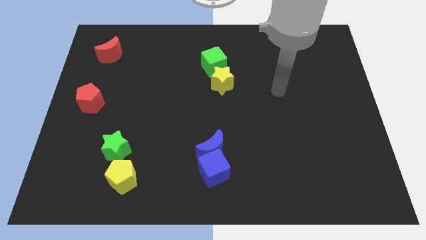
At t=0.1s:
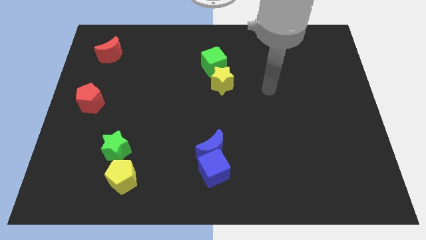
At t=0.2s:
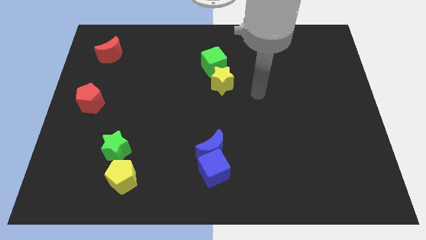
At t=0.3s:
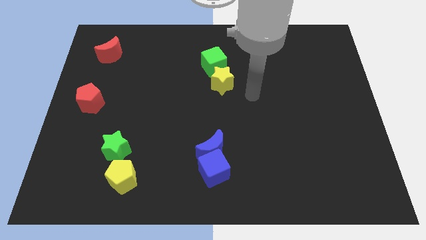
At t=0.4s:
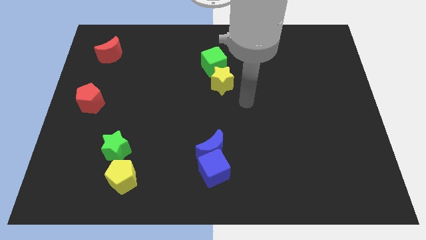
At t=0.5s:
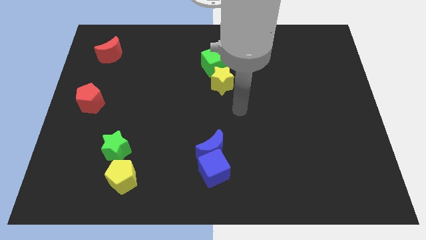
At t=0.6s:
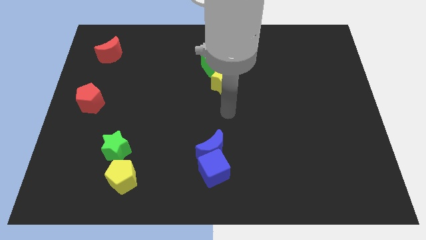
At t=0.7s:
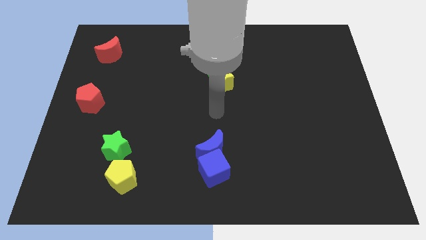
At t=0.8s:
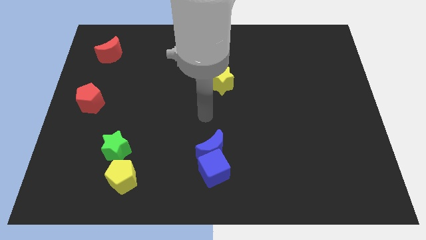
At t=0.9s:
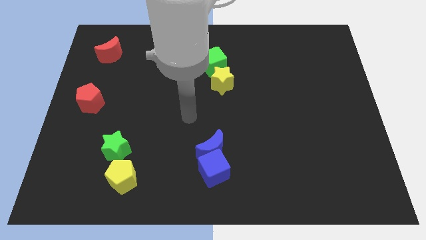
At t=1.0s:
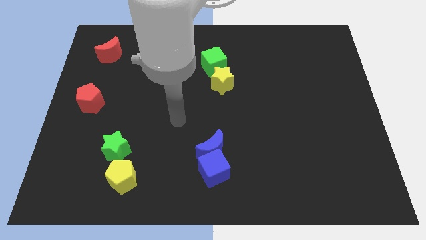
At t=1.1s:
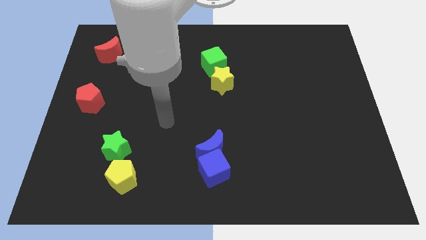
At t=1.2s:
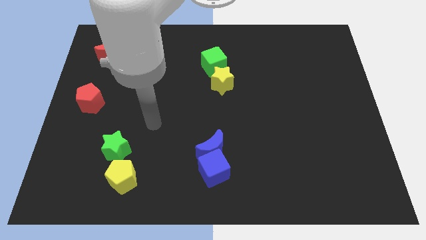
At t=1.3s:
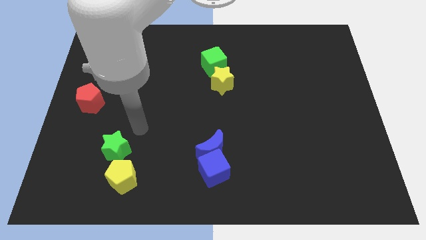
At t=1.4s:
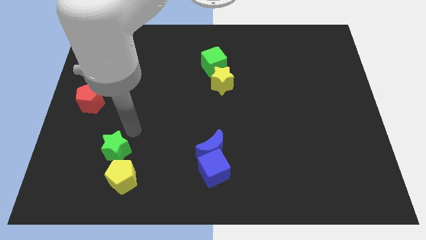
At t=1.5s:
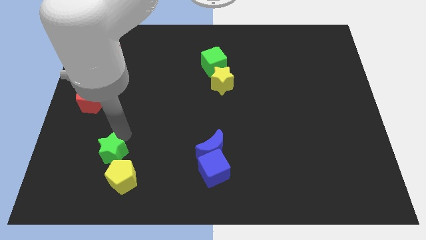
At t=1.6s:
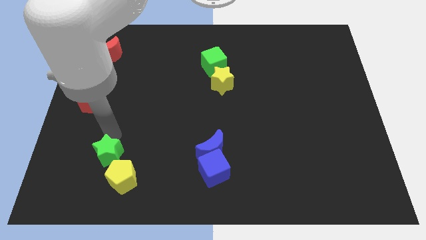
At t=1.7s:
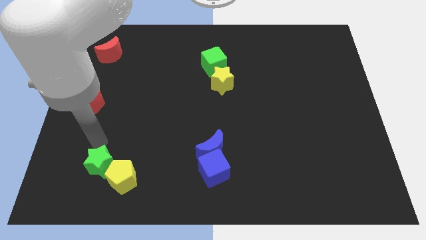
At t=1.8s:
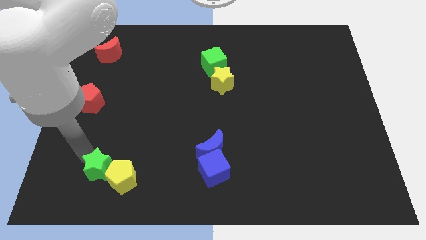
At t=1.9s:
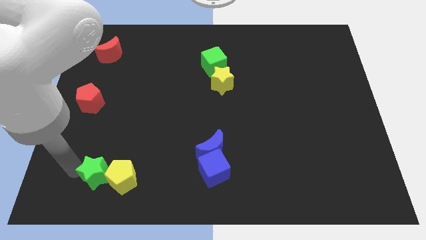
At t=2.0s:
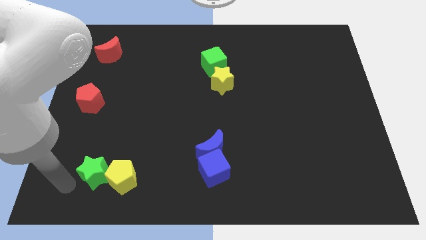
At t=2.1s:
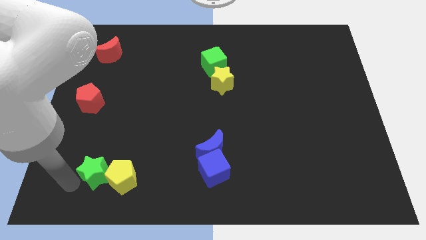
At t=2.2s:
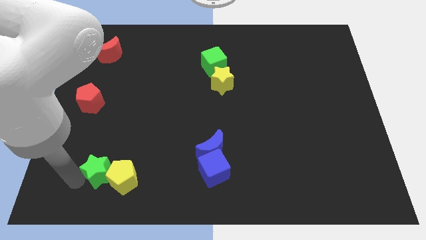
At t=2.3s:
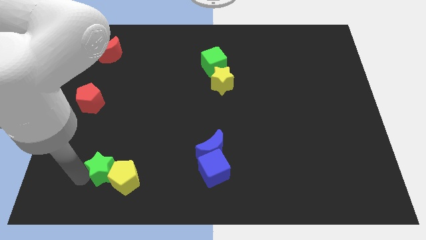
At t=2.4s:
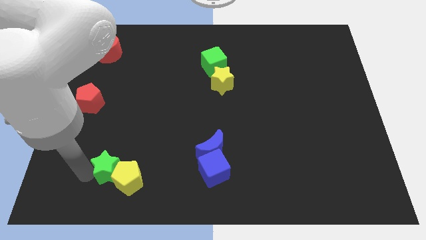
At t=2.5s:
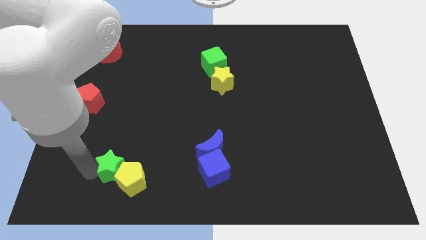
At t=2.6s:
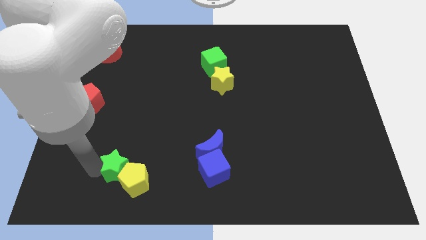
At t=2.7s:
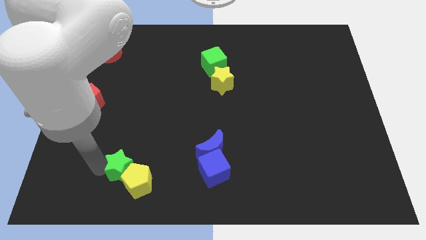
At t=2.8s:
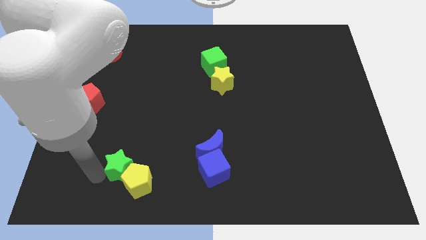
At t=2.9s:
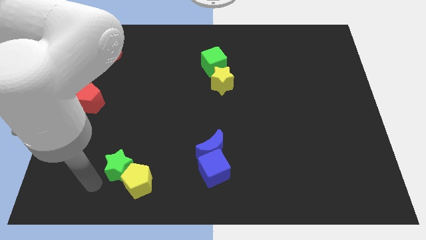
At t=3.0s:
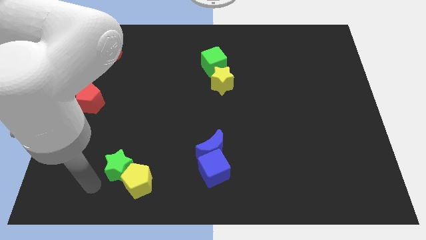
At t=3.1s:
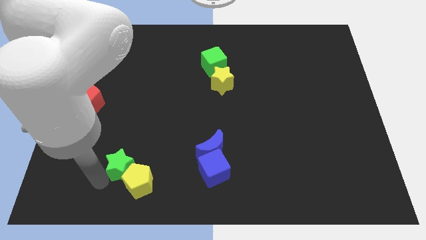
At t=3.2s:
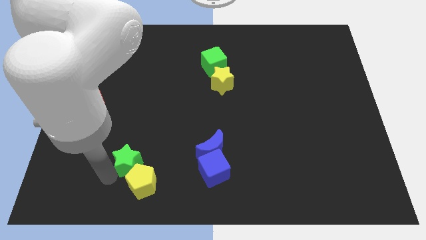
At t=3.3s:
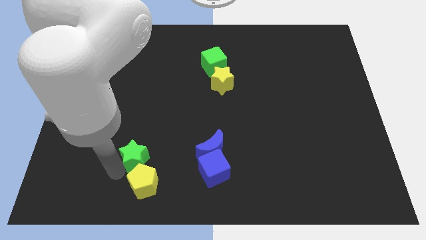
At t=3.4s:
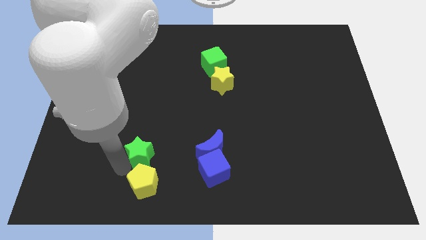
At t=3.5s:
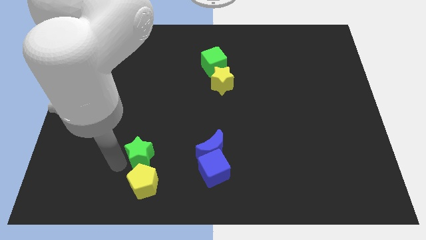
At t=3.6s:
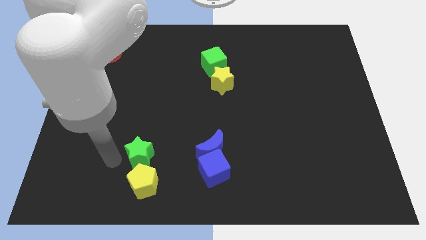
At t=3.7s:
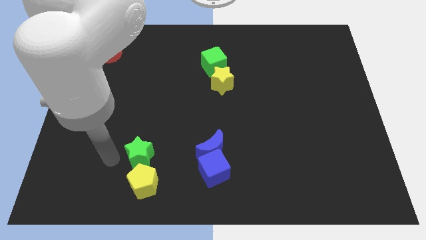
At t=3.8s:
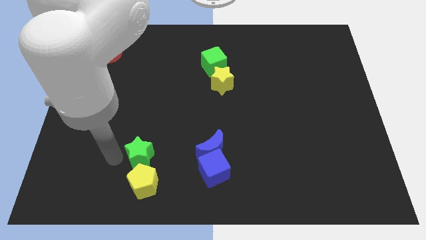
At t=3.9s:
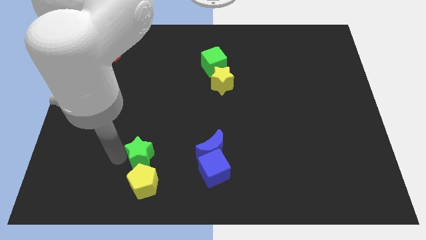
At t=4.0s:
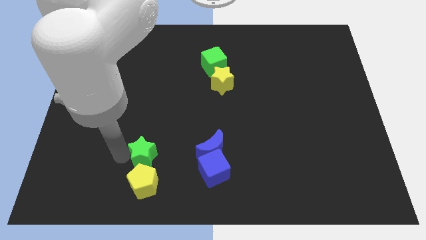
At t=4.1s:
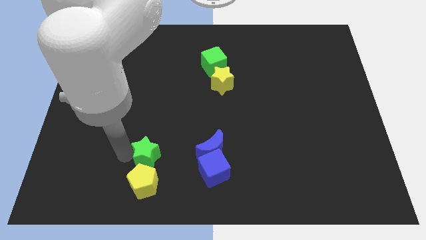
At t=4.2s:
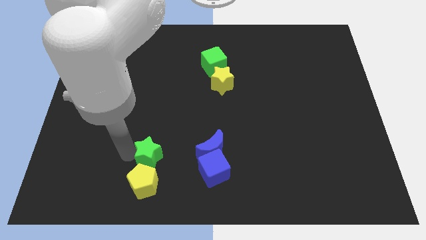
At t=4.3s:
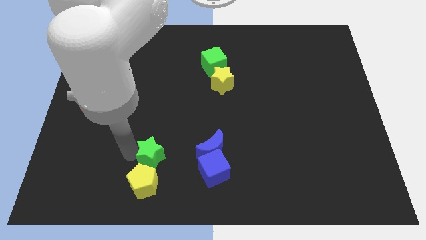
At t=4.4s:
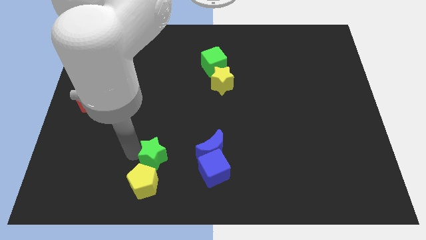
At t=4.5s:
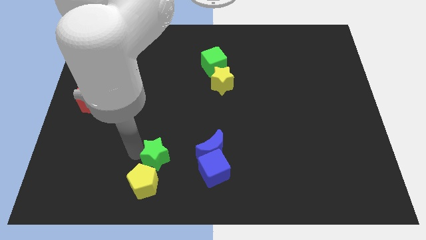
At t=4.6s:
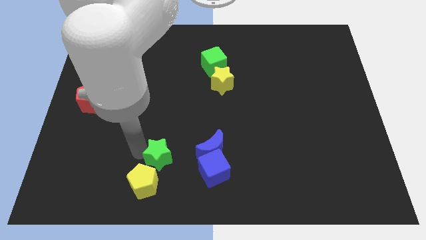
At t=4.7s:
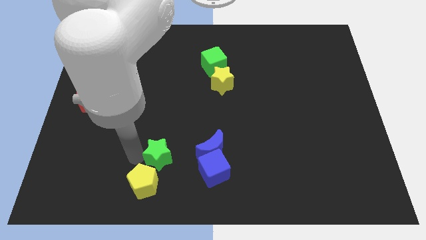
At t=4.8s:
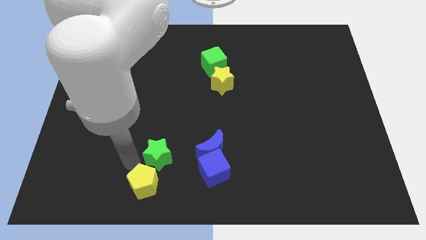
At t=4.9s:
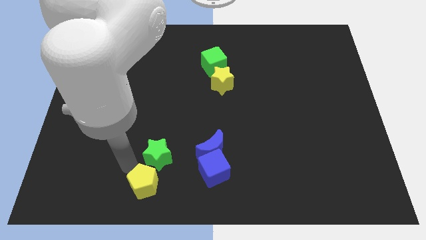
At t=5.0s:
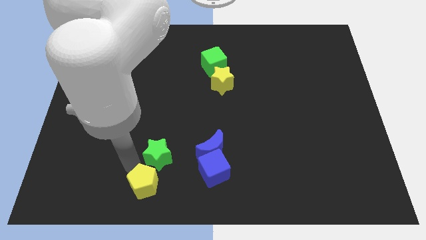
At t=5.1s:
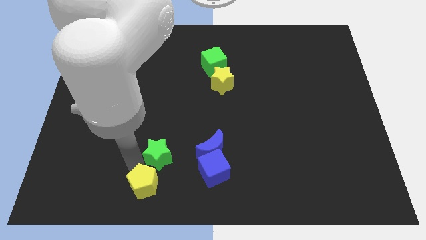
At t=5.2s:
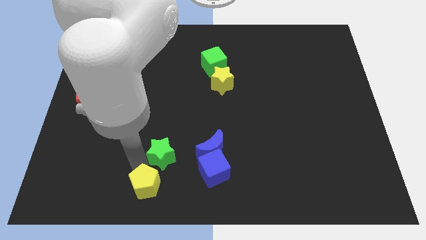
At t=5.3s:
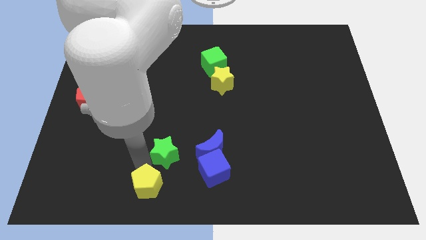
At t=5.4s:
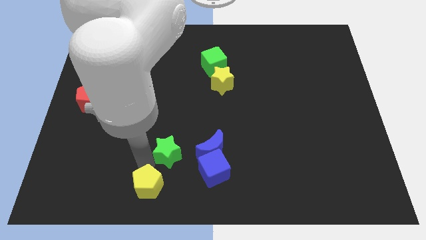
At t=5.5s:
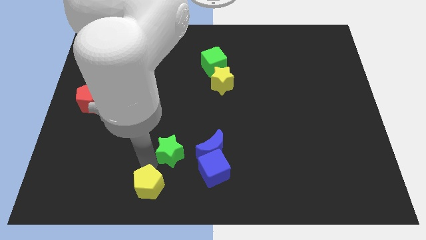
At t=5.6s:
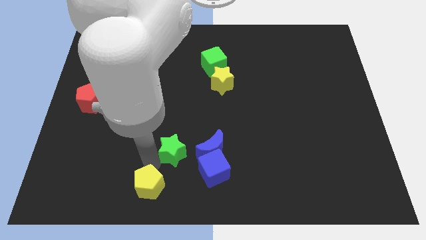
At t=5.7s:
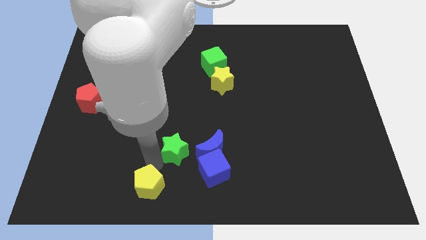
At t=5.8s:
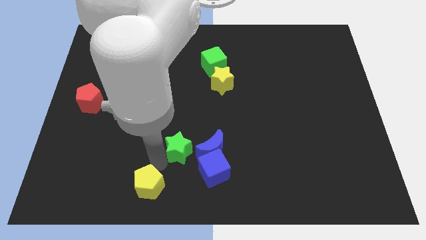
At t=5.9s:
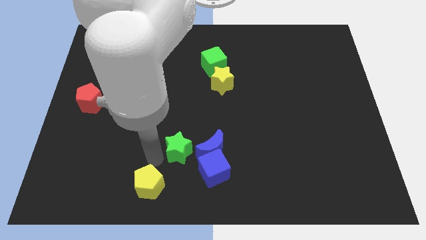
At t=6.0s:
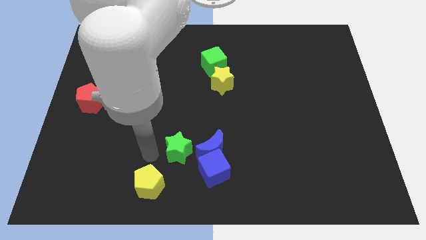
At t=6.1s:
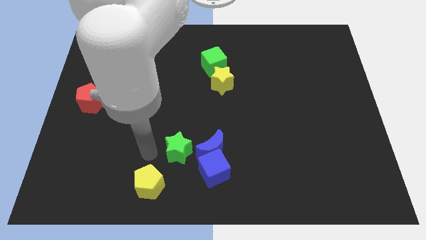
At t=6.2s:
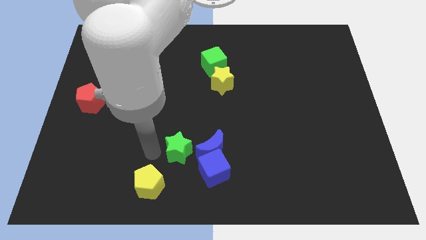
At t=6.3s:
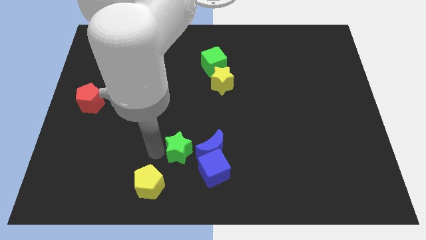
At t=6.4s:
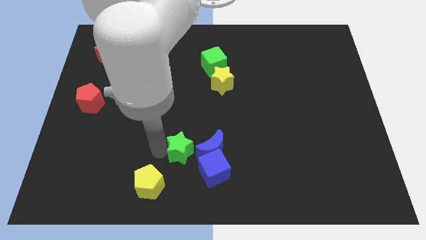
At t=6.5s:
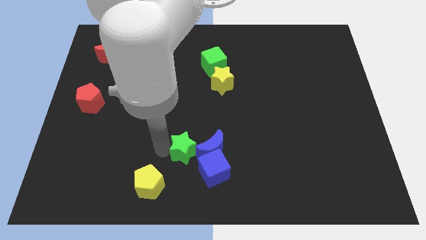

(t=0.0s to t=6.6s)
move the green star towards the blue moon
